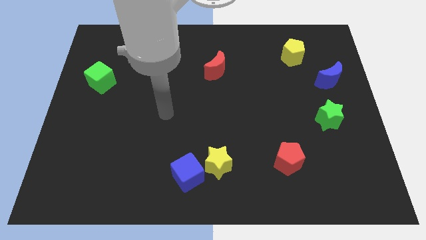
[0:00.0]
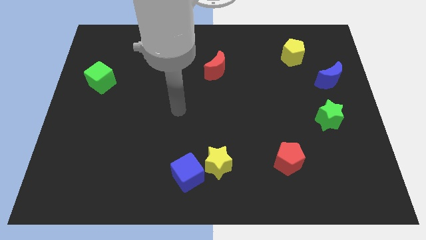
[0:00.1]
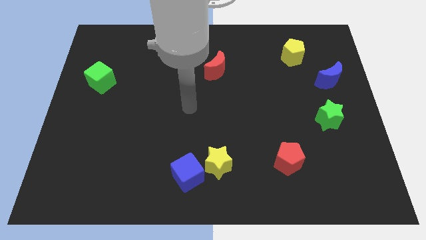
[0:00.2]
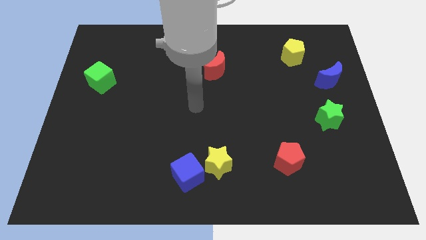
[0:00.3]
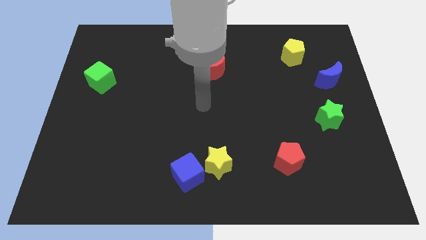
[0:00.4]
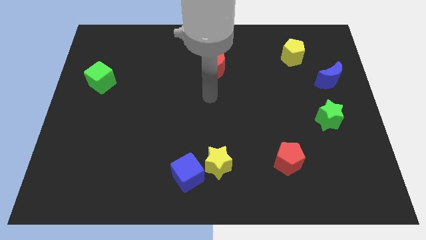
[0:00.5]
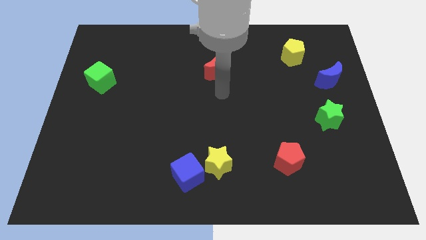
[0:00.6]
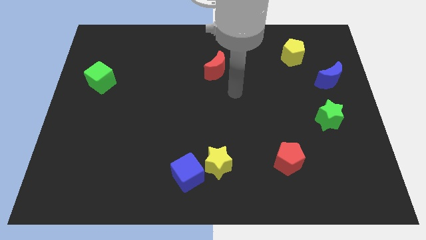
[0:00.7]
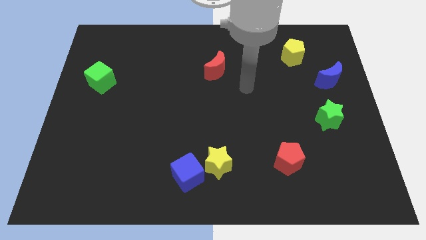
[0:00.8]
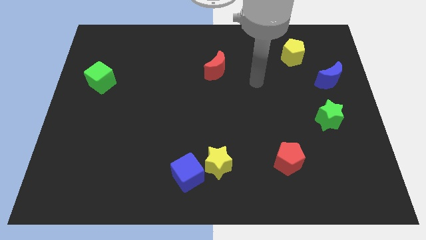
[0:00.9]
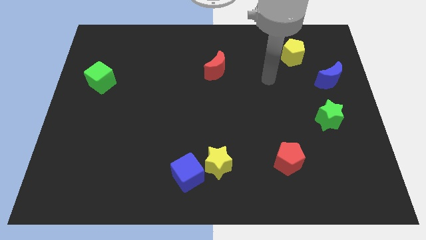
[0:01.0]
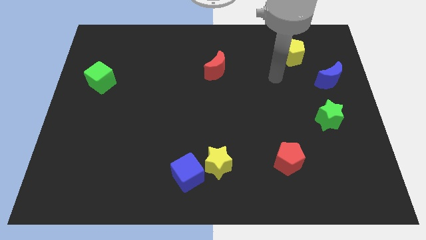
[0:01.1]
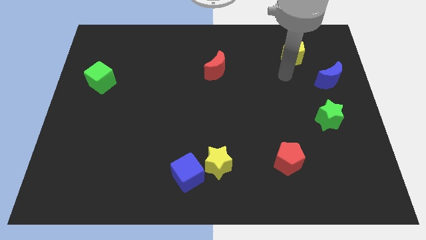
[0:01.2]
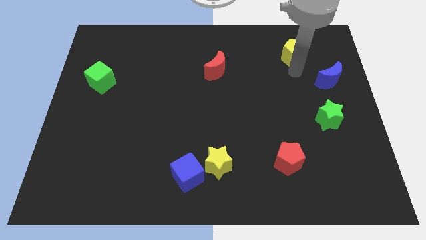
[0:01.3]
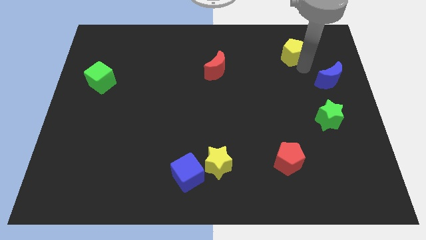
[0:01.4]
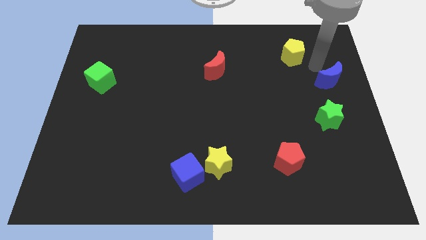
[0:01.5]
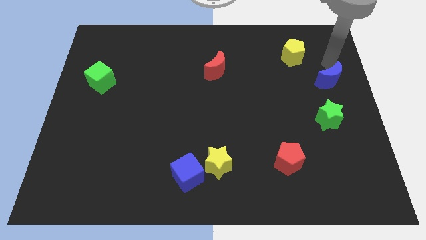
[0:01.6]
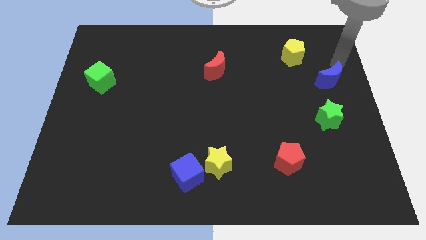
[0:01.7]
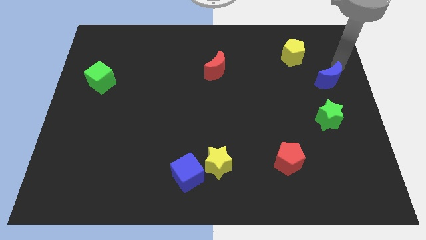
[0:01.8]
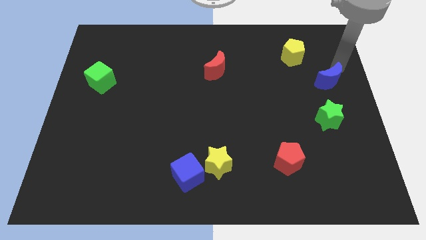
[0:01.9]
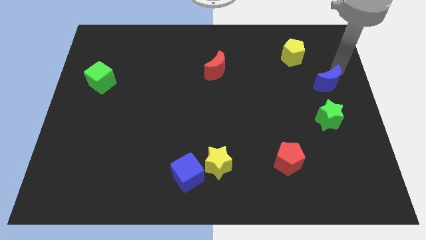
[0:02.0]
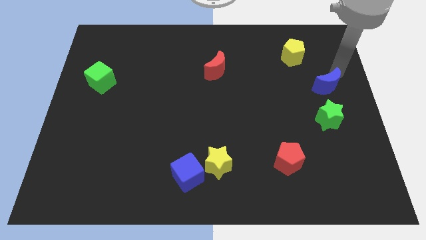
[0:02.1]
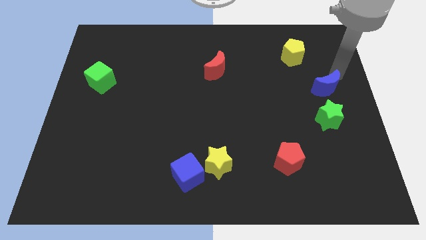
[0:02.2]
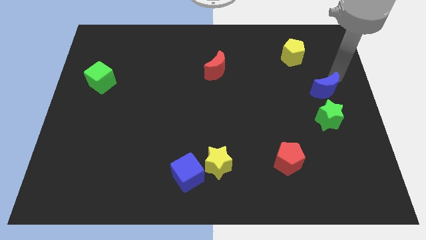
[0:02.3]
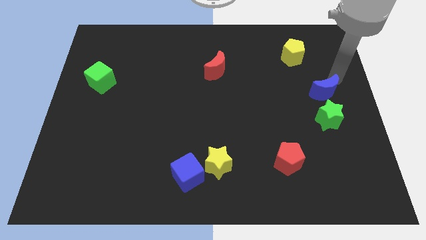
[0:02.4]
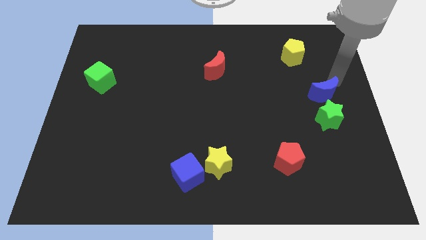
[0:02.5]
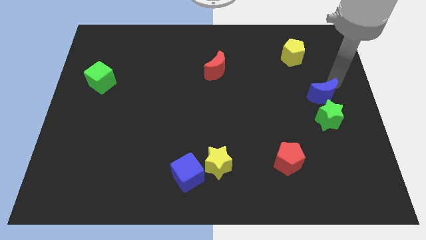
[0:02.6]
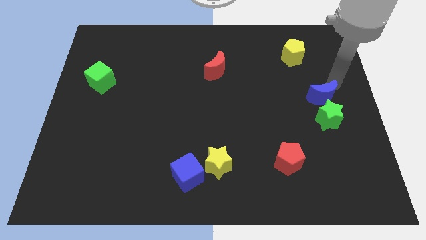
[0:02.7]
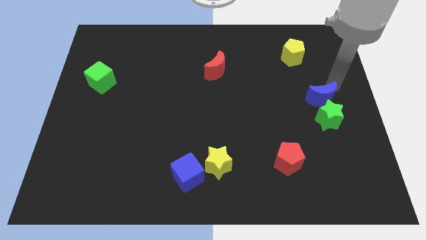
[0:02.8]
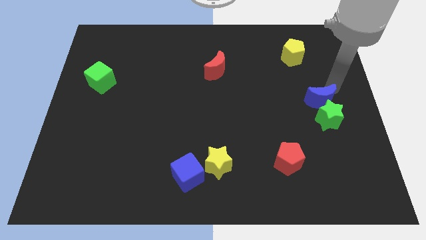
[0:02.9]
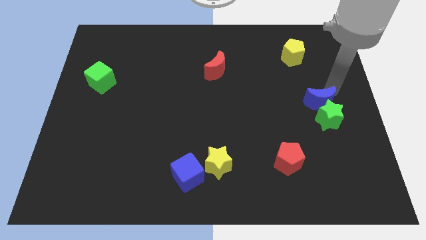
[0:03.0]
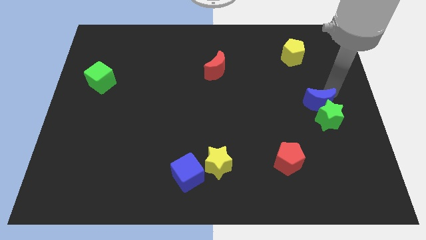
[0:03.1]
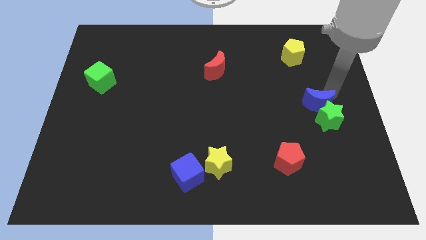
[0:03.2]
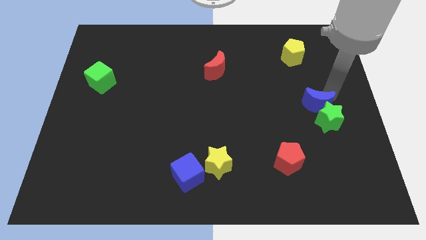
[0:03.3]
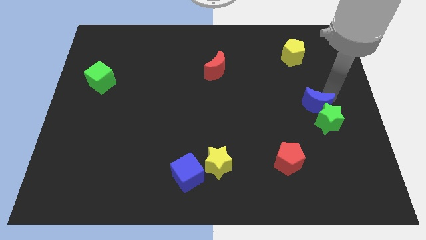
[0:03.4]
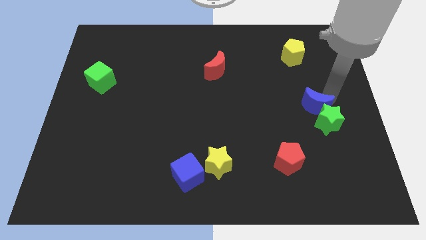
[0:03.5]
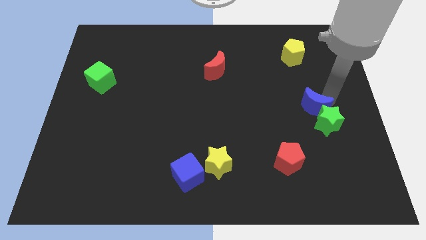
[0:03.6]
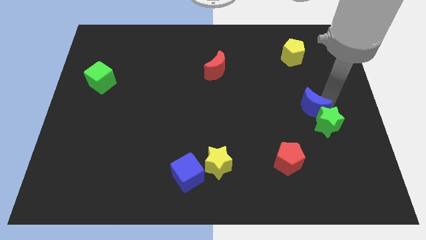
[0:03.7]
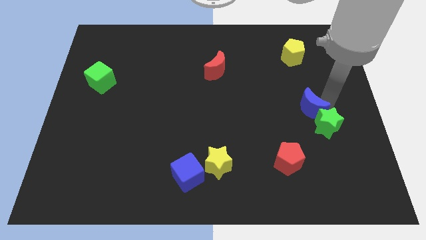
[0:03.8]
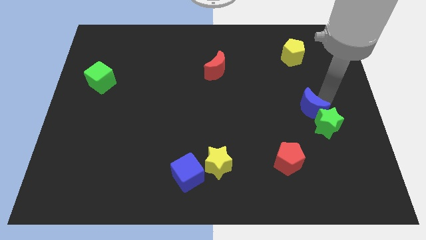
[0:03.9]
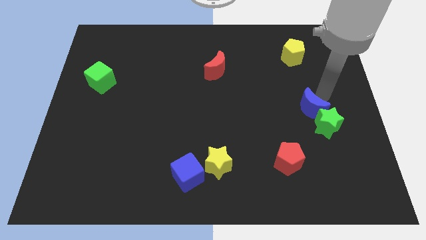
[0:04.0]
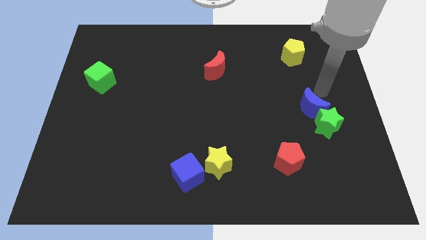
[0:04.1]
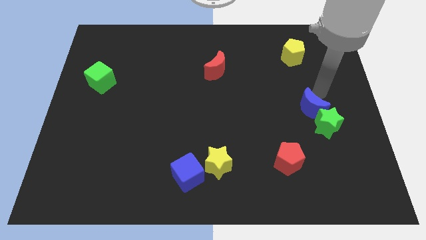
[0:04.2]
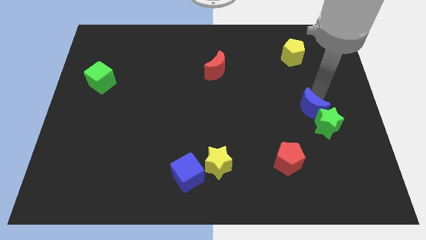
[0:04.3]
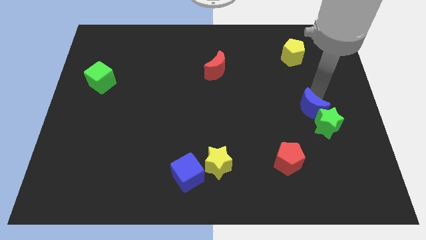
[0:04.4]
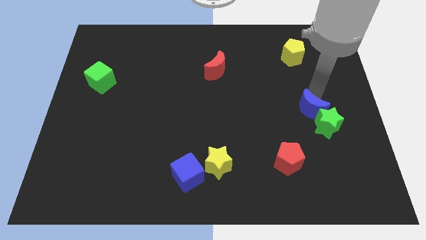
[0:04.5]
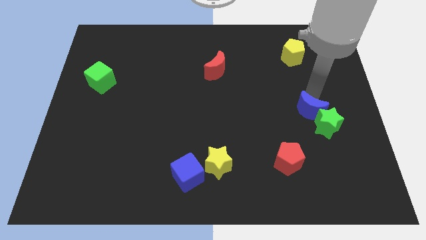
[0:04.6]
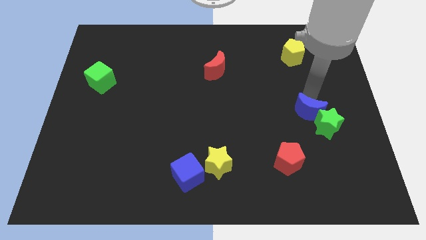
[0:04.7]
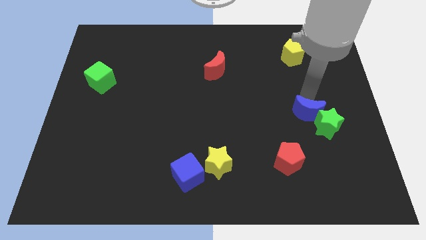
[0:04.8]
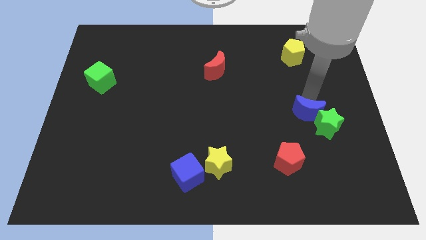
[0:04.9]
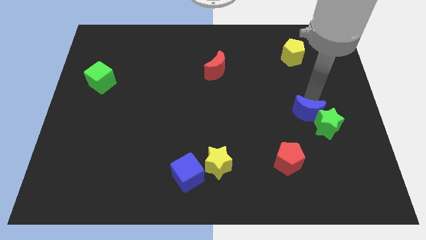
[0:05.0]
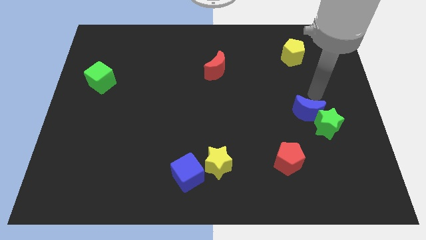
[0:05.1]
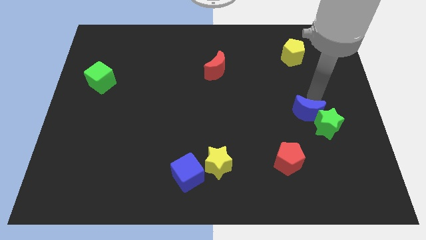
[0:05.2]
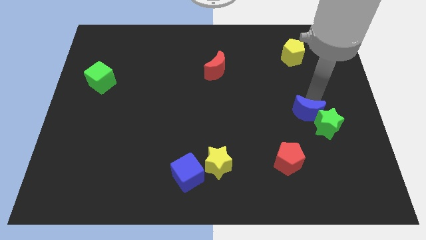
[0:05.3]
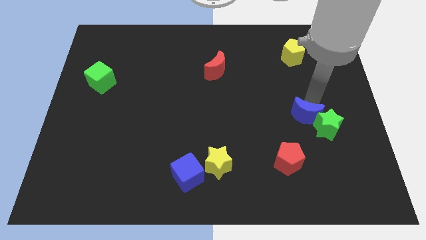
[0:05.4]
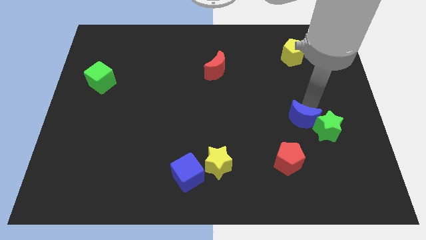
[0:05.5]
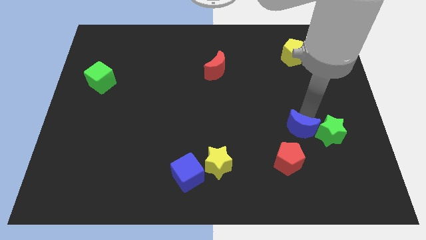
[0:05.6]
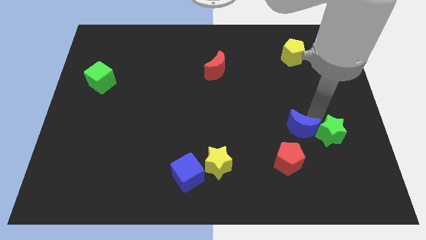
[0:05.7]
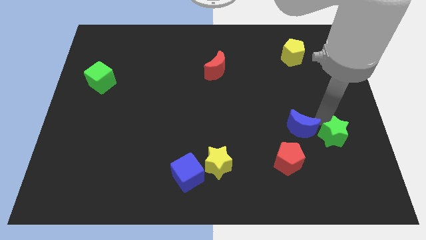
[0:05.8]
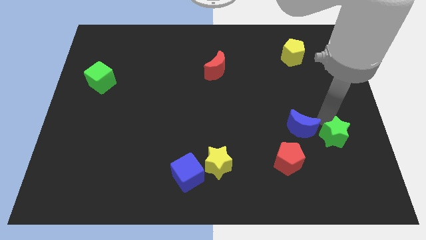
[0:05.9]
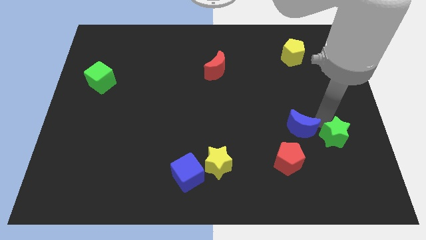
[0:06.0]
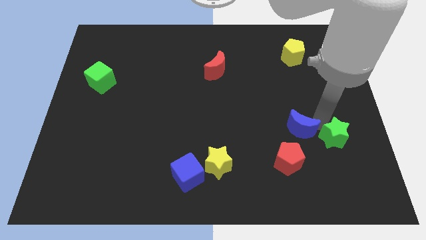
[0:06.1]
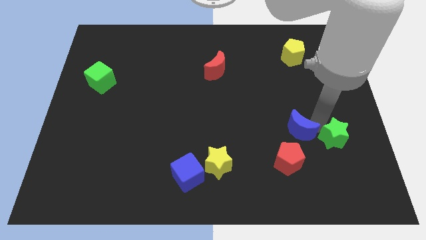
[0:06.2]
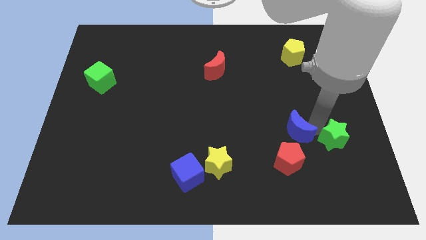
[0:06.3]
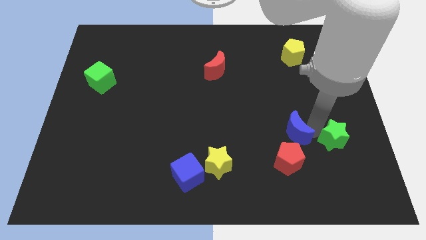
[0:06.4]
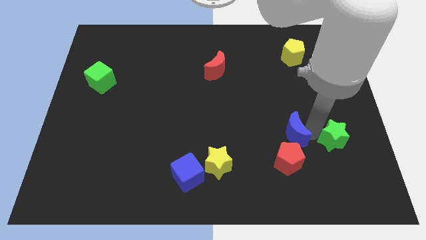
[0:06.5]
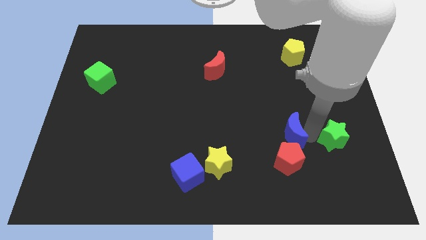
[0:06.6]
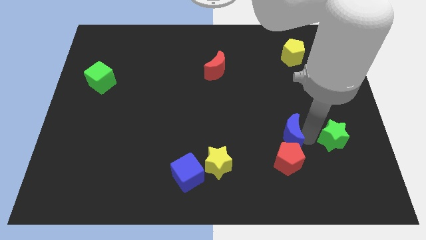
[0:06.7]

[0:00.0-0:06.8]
slide the blue moon downwards and then to the left

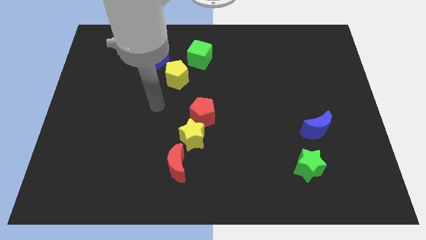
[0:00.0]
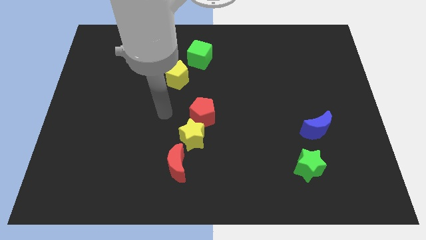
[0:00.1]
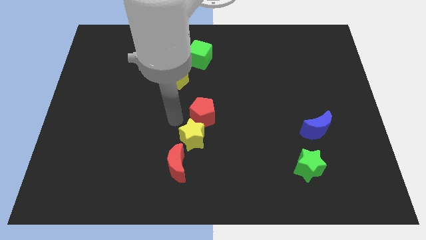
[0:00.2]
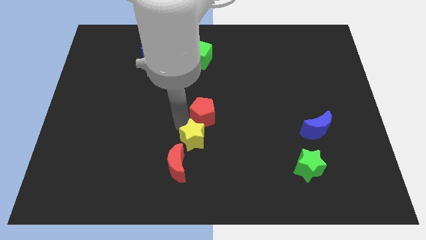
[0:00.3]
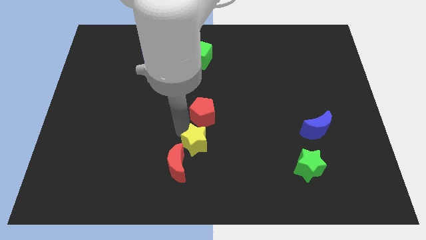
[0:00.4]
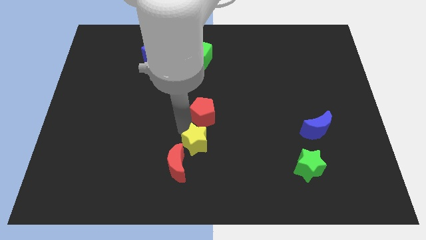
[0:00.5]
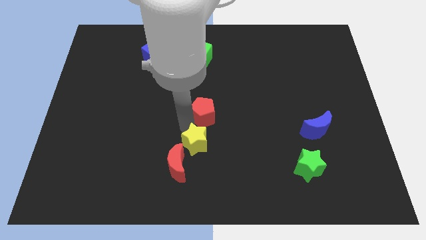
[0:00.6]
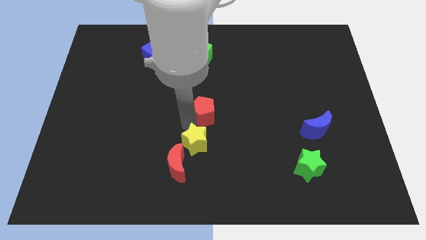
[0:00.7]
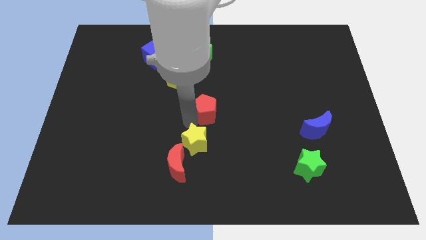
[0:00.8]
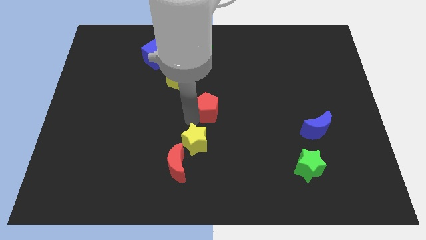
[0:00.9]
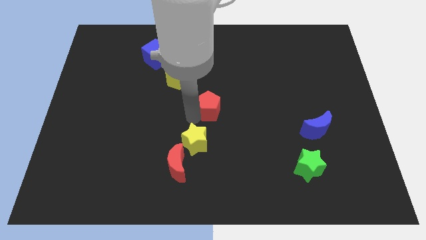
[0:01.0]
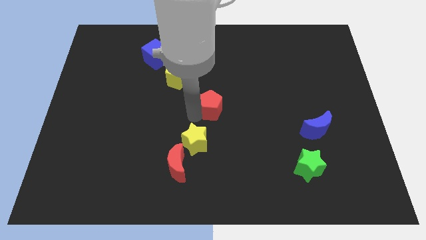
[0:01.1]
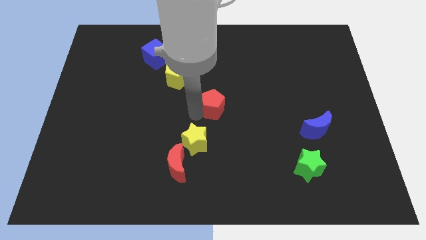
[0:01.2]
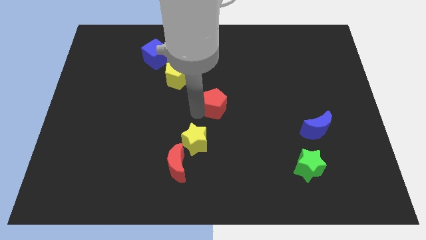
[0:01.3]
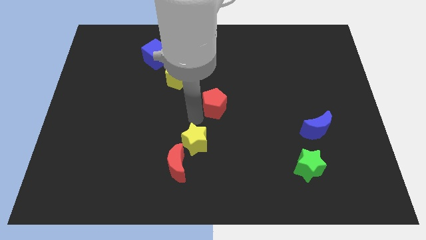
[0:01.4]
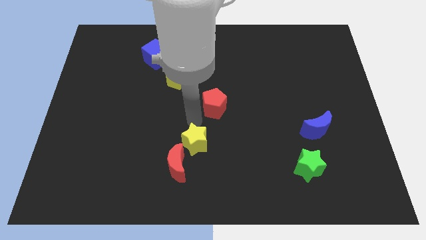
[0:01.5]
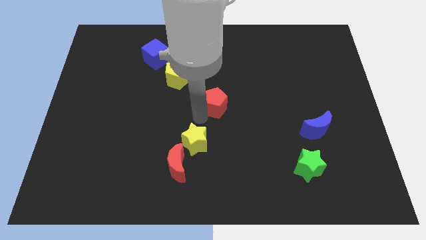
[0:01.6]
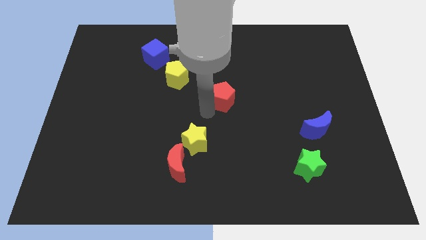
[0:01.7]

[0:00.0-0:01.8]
slightly push the red pentagon up and to the right diagonally
